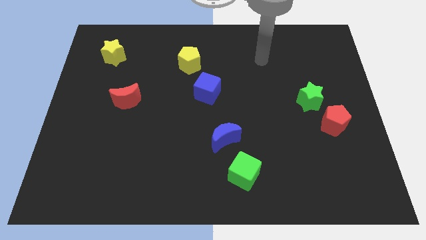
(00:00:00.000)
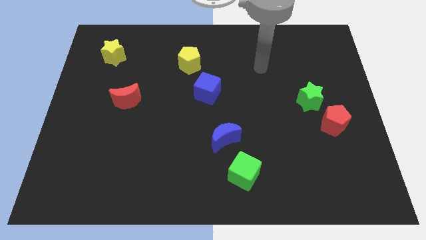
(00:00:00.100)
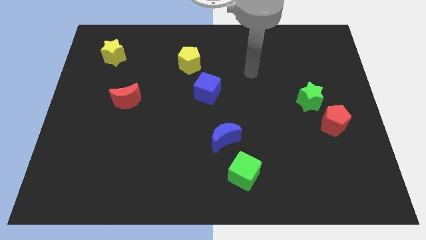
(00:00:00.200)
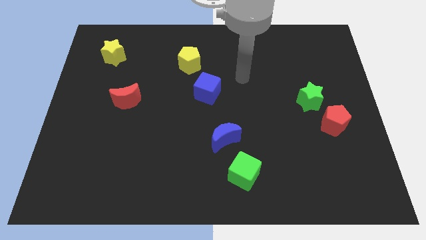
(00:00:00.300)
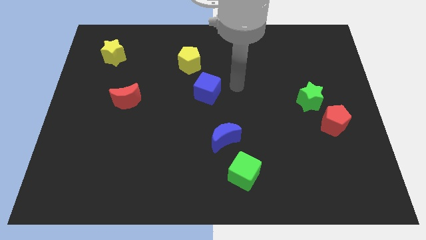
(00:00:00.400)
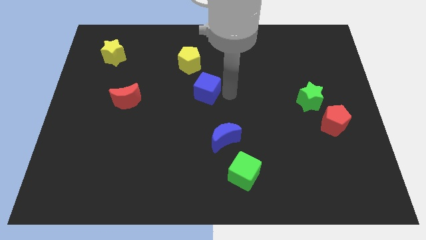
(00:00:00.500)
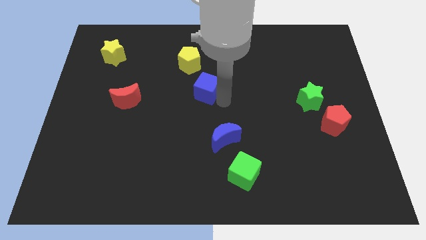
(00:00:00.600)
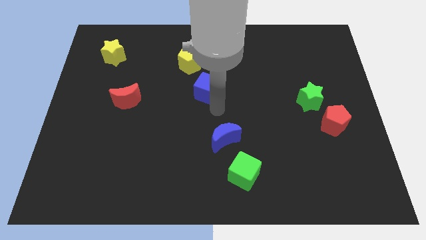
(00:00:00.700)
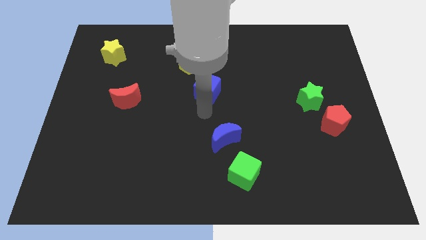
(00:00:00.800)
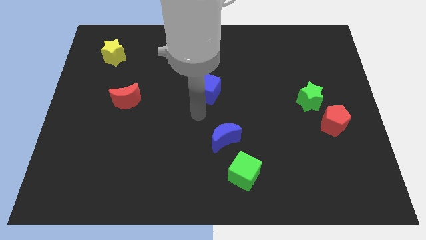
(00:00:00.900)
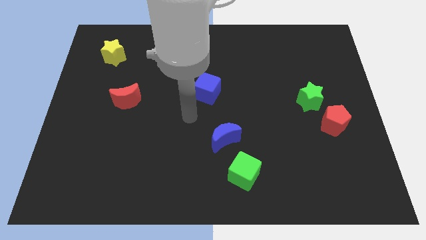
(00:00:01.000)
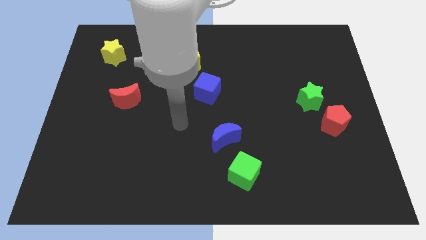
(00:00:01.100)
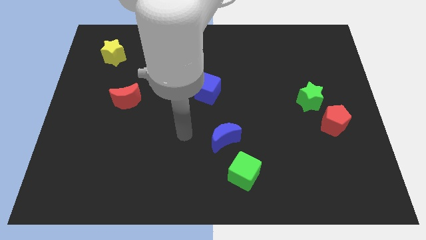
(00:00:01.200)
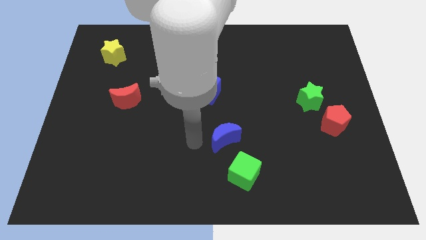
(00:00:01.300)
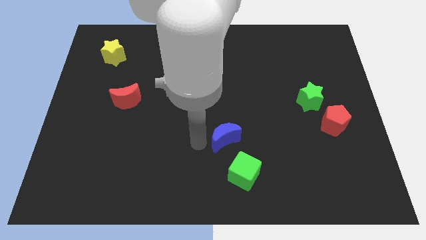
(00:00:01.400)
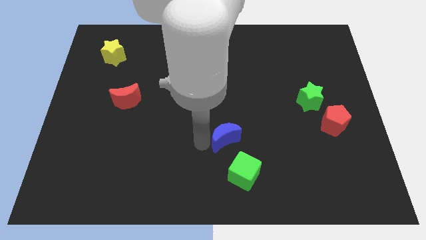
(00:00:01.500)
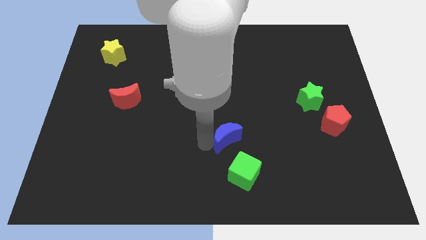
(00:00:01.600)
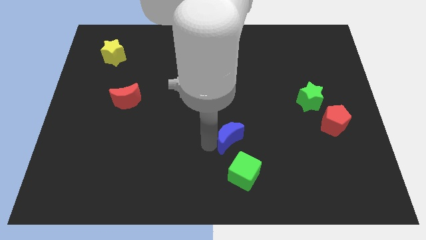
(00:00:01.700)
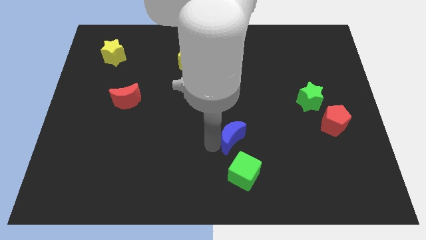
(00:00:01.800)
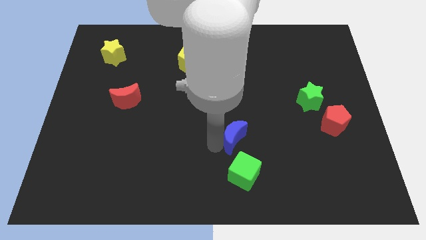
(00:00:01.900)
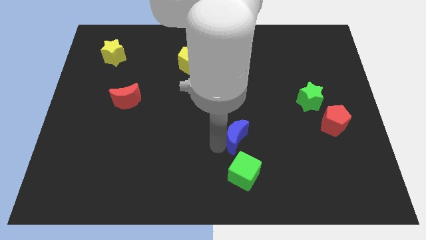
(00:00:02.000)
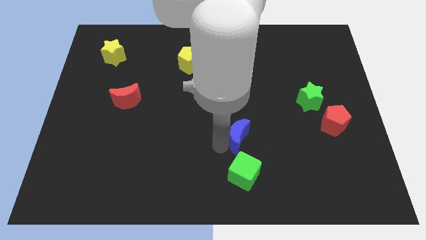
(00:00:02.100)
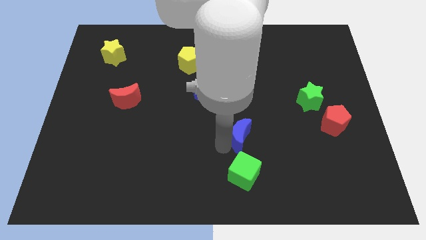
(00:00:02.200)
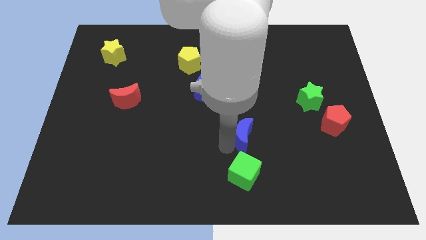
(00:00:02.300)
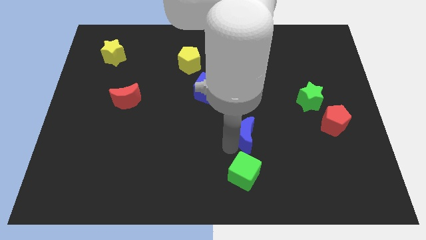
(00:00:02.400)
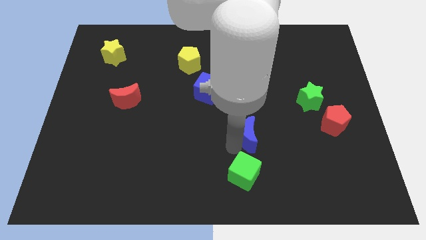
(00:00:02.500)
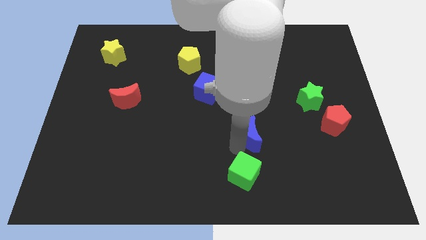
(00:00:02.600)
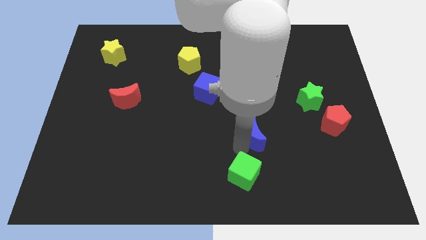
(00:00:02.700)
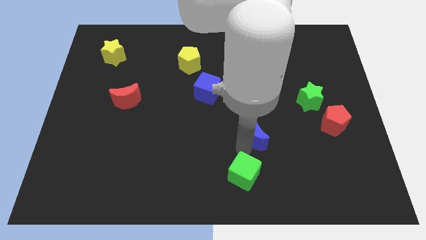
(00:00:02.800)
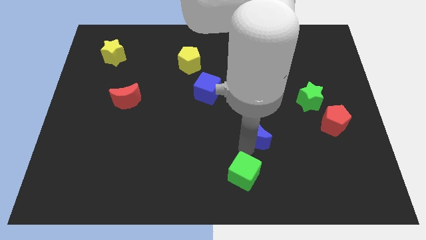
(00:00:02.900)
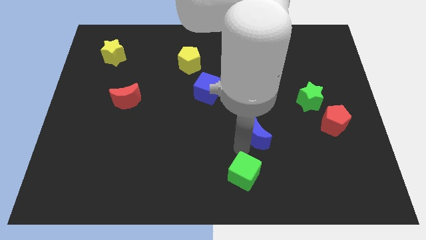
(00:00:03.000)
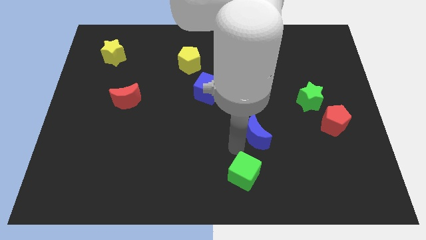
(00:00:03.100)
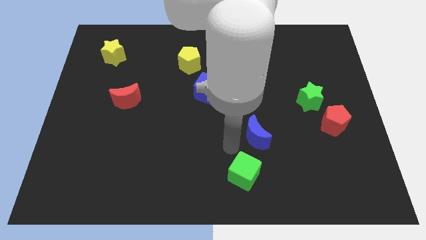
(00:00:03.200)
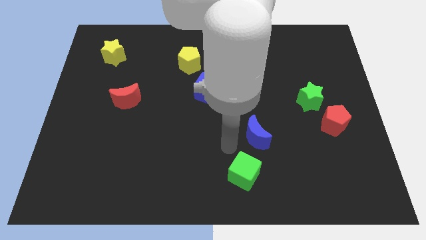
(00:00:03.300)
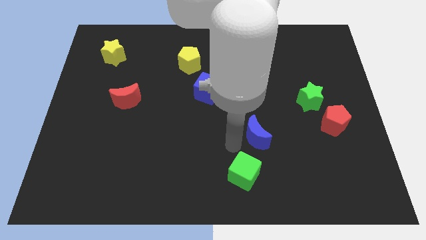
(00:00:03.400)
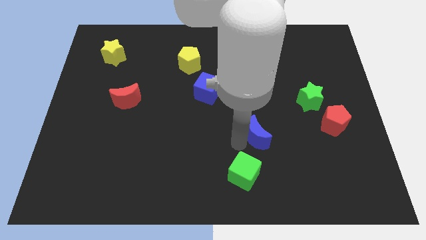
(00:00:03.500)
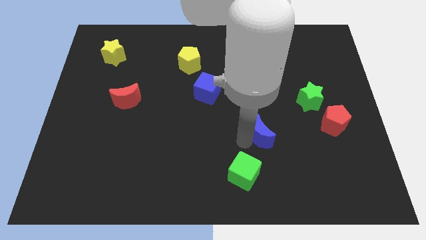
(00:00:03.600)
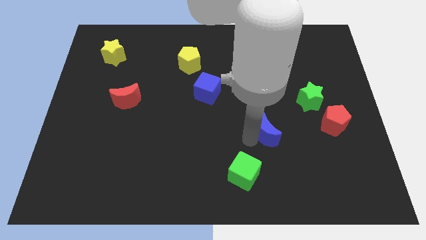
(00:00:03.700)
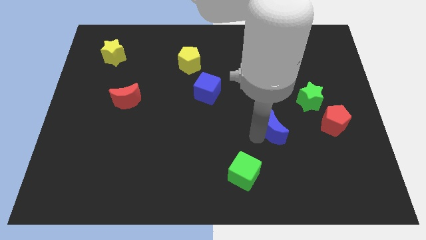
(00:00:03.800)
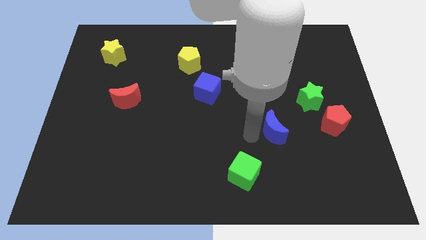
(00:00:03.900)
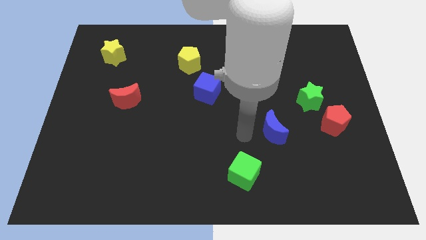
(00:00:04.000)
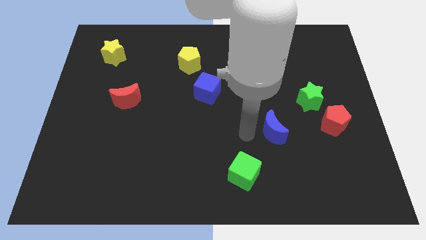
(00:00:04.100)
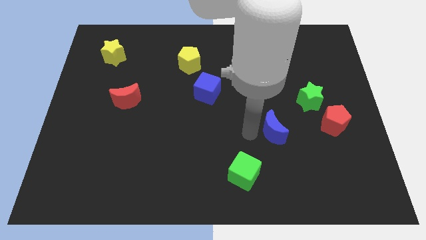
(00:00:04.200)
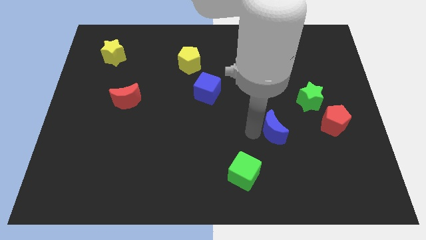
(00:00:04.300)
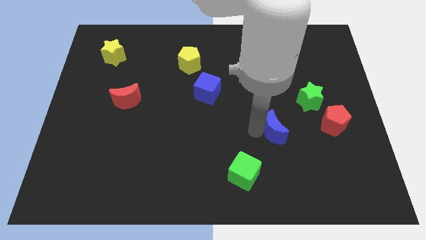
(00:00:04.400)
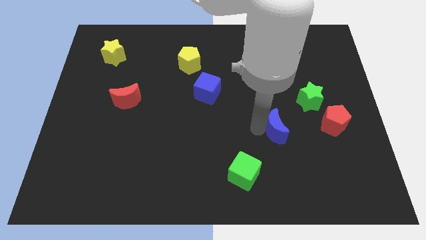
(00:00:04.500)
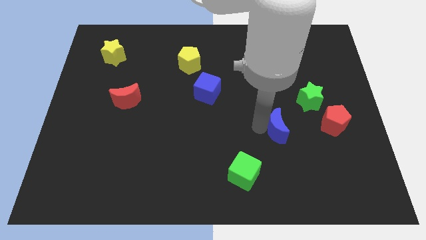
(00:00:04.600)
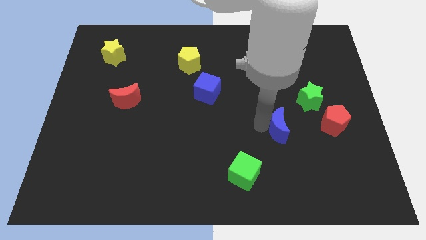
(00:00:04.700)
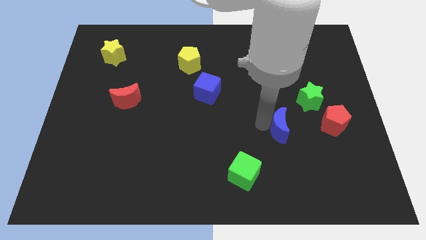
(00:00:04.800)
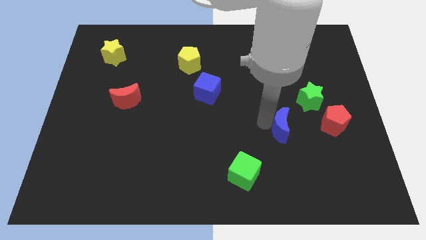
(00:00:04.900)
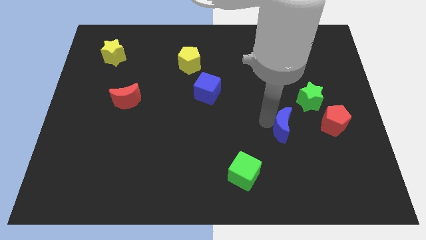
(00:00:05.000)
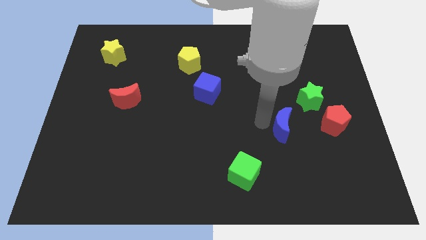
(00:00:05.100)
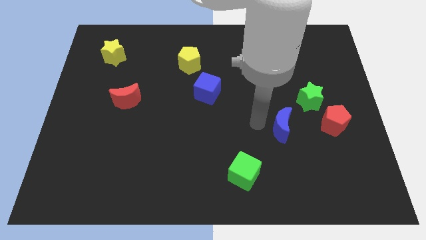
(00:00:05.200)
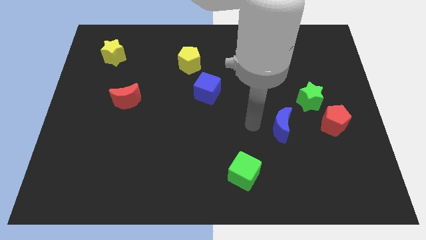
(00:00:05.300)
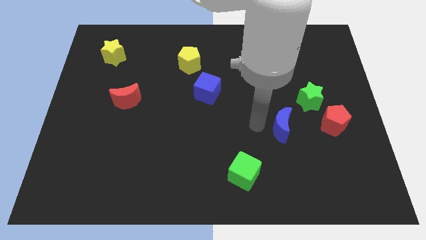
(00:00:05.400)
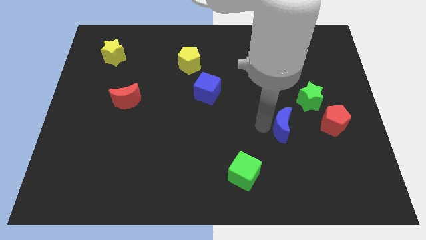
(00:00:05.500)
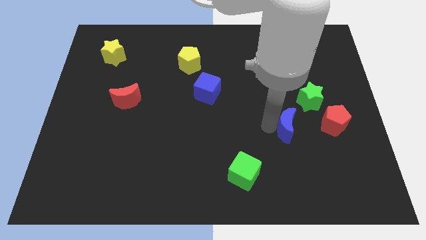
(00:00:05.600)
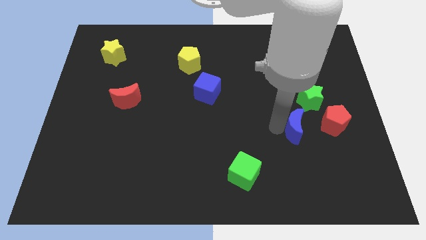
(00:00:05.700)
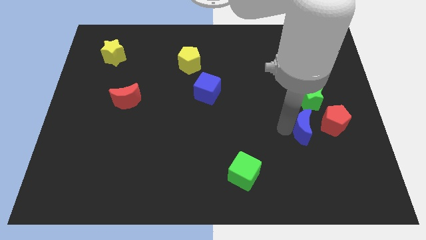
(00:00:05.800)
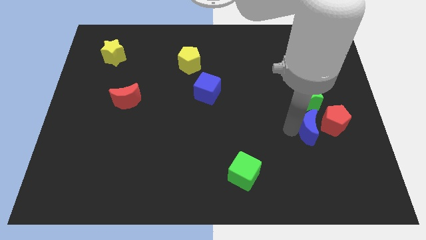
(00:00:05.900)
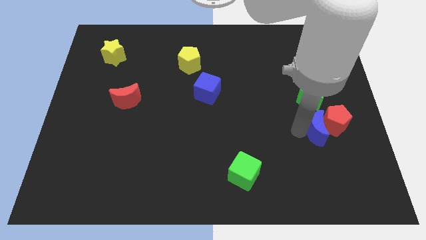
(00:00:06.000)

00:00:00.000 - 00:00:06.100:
put the blue moon to the red pentagon
